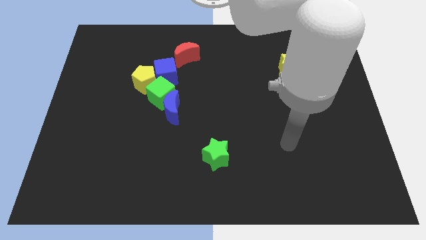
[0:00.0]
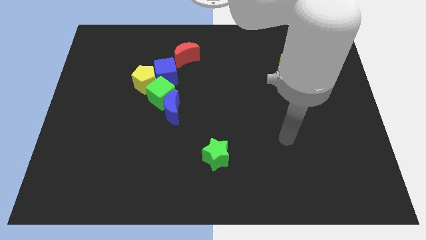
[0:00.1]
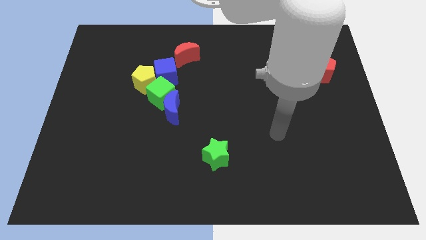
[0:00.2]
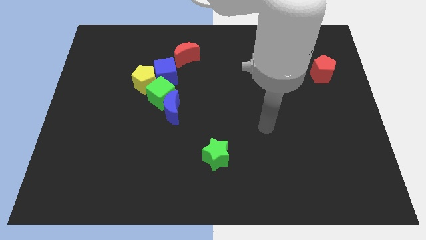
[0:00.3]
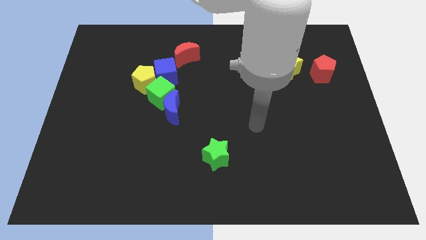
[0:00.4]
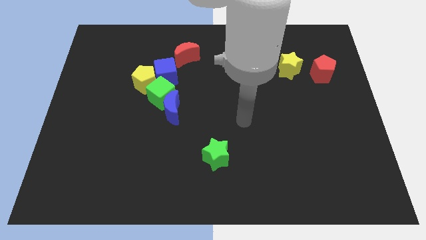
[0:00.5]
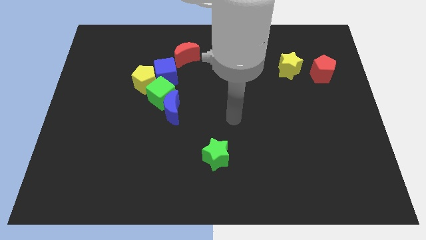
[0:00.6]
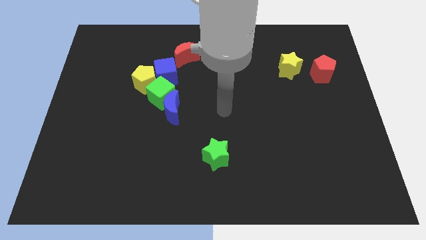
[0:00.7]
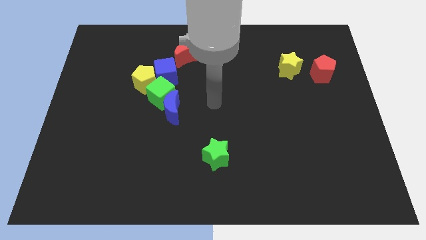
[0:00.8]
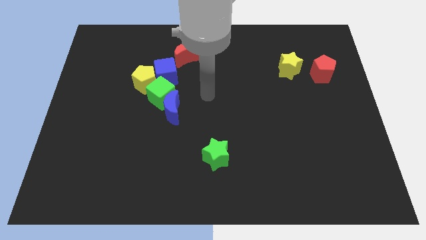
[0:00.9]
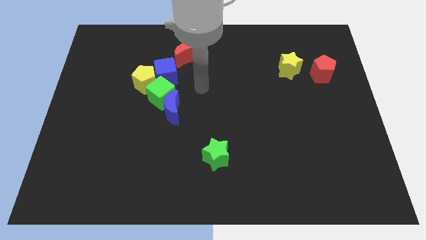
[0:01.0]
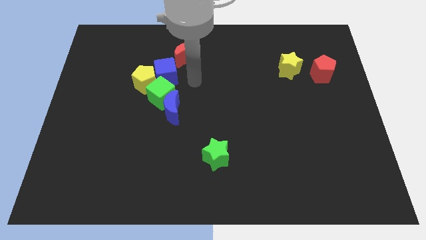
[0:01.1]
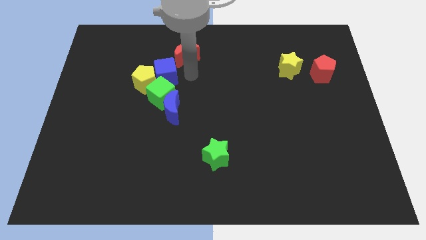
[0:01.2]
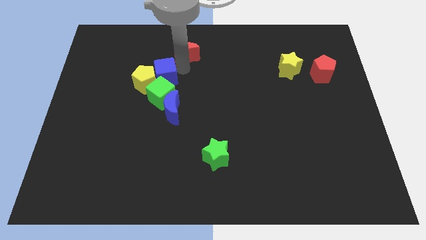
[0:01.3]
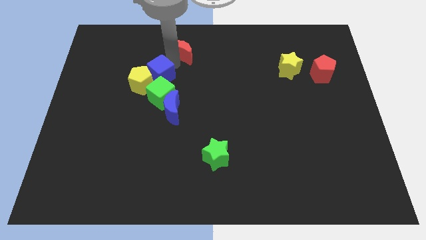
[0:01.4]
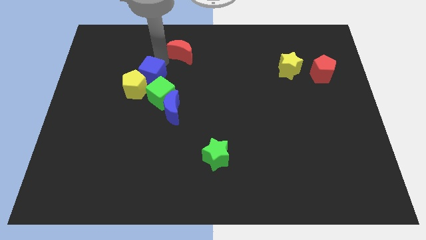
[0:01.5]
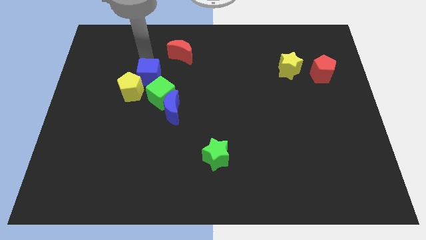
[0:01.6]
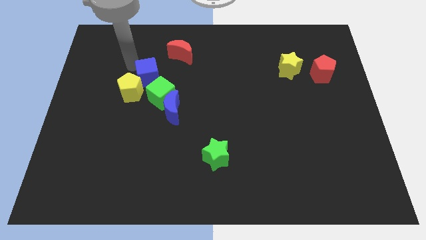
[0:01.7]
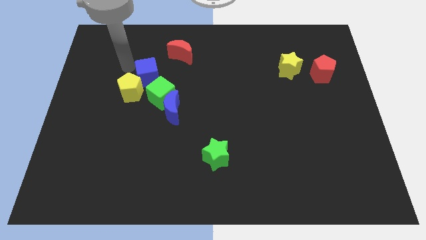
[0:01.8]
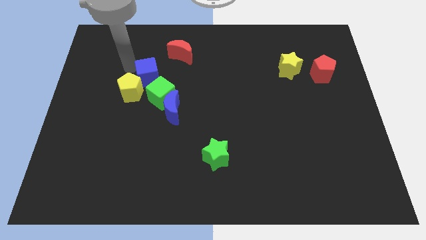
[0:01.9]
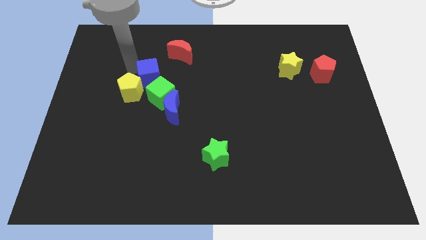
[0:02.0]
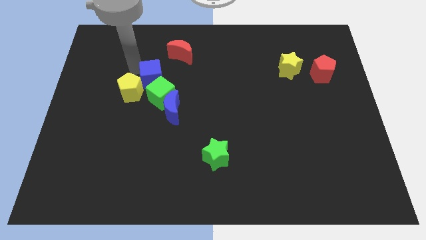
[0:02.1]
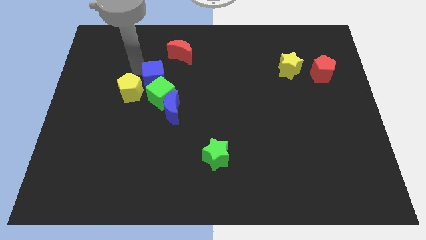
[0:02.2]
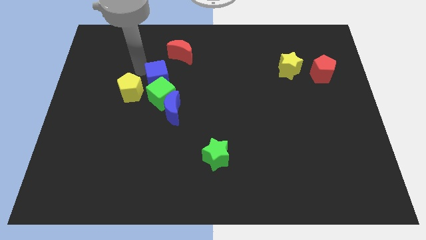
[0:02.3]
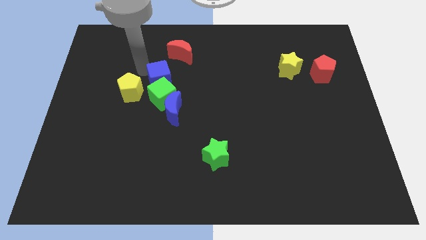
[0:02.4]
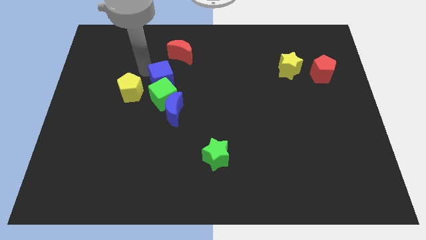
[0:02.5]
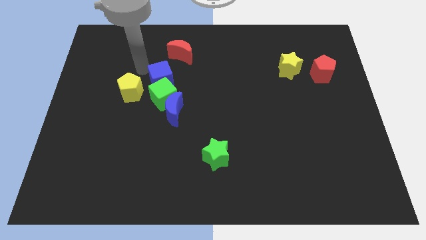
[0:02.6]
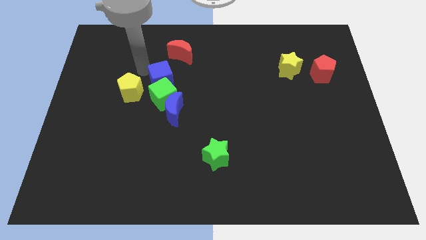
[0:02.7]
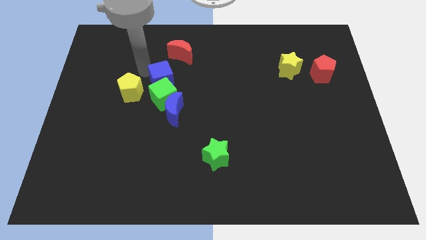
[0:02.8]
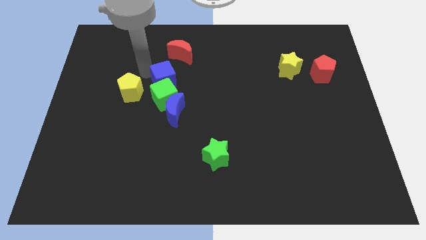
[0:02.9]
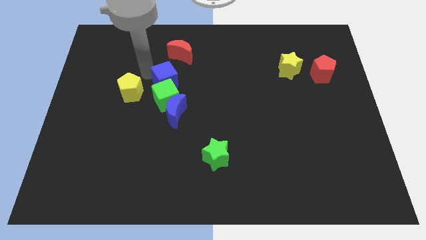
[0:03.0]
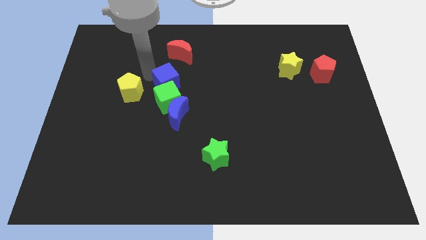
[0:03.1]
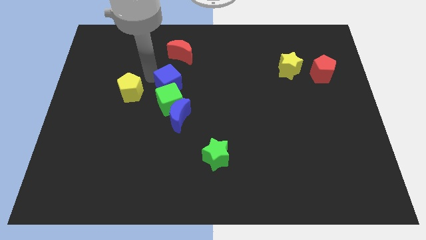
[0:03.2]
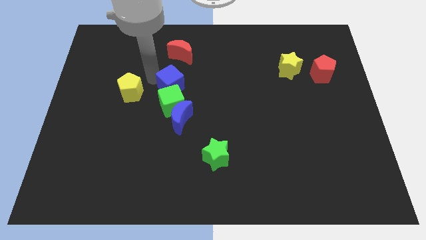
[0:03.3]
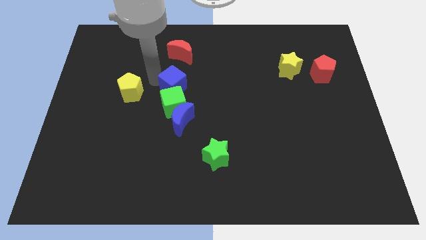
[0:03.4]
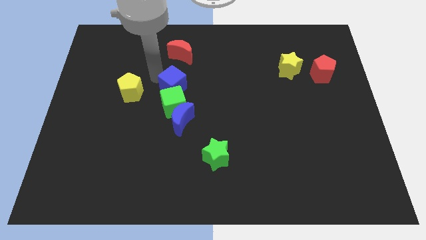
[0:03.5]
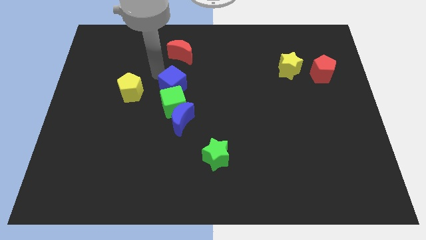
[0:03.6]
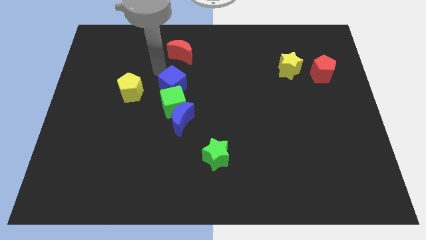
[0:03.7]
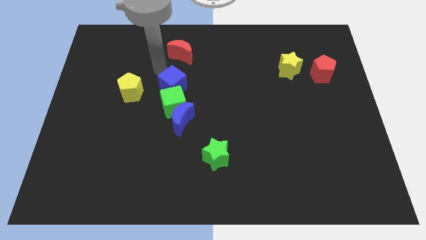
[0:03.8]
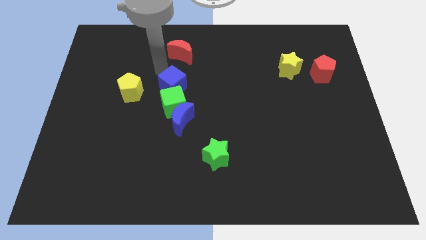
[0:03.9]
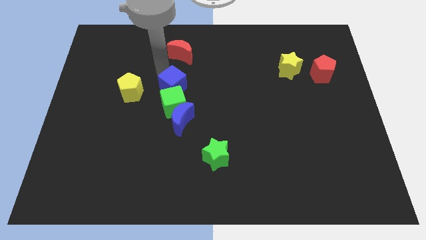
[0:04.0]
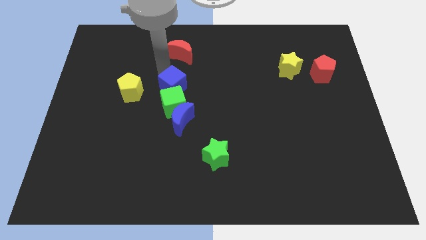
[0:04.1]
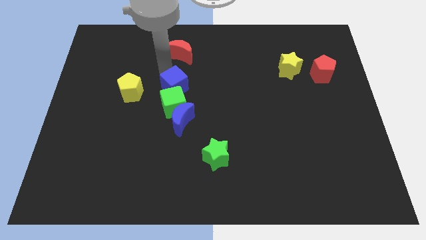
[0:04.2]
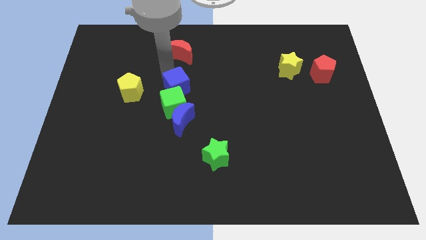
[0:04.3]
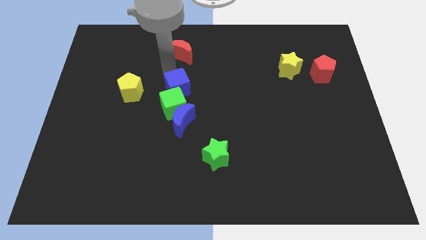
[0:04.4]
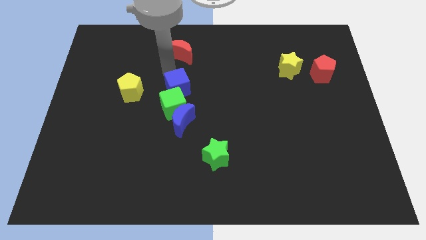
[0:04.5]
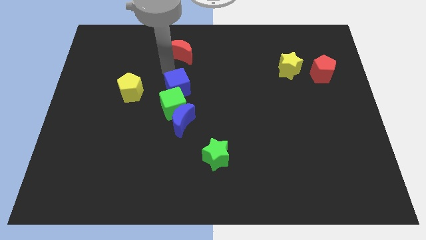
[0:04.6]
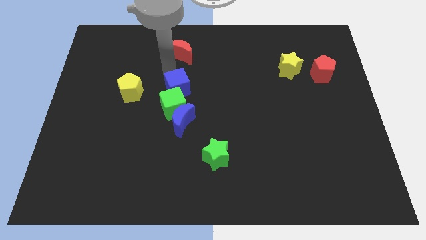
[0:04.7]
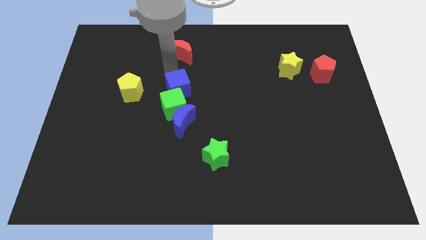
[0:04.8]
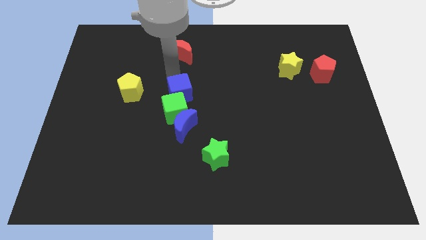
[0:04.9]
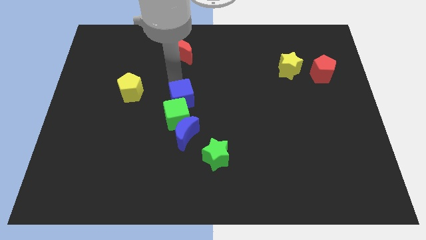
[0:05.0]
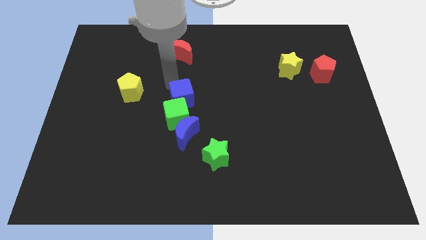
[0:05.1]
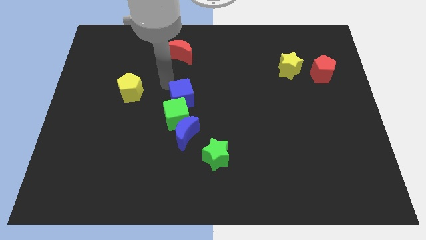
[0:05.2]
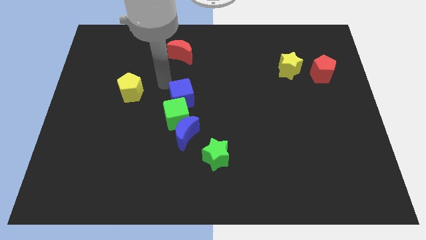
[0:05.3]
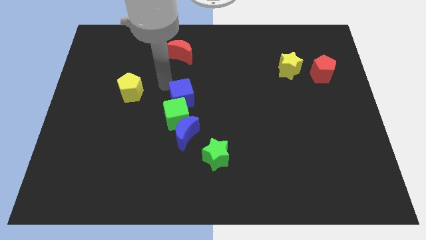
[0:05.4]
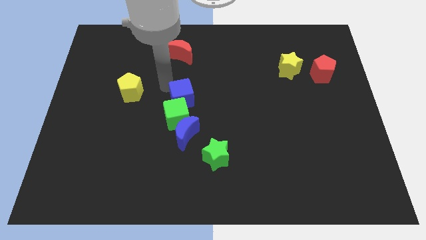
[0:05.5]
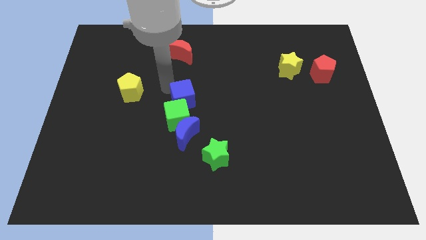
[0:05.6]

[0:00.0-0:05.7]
move the blue cube downwards slightly

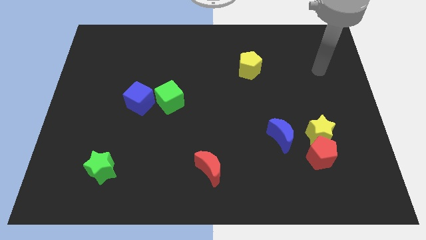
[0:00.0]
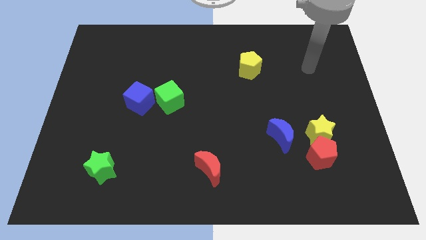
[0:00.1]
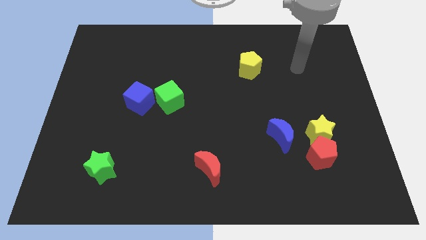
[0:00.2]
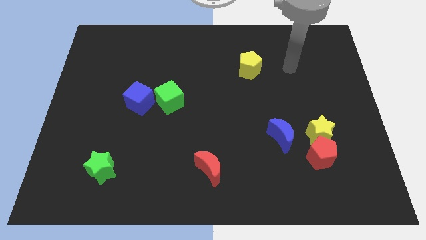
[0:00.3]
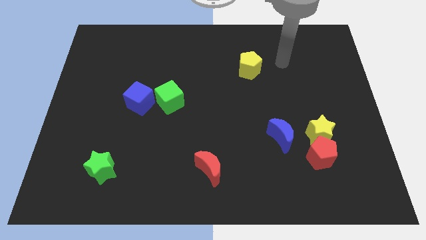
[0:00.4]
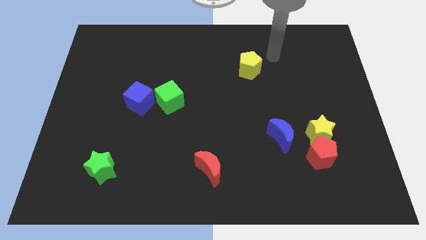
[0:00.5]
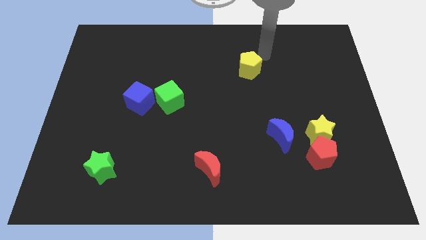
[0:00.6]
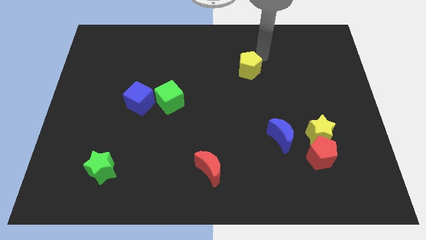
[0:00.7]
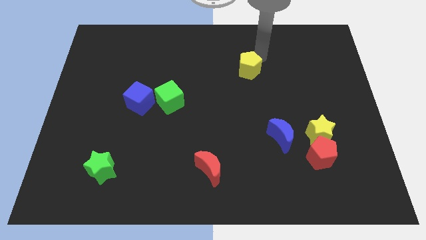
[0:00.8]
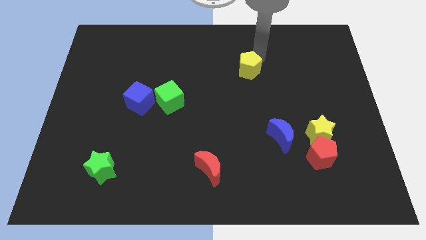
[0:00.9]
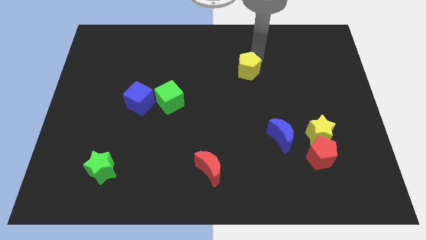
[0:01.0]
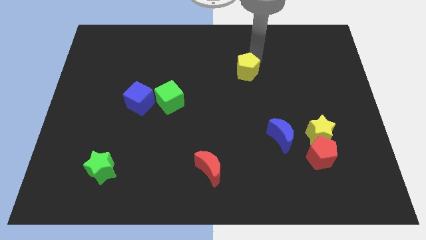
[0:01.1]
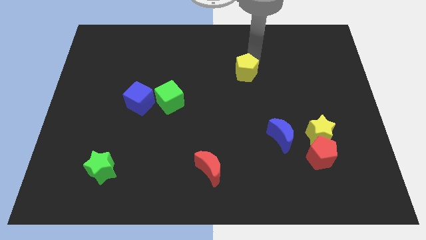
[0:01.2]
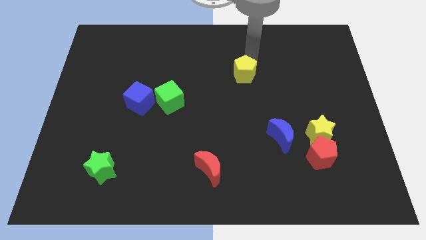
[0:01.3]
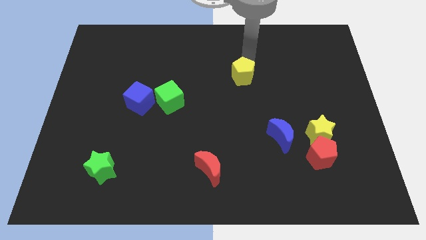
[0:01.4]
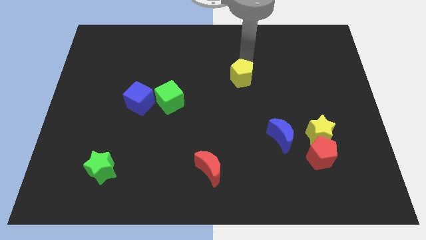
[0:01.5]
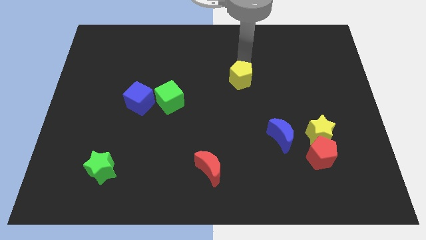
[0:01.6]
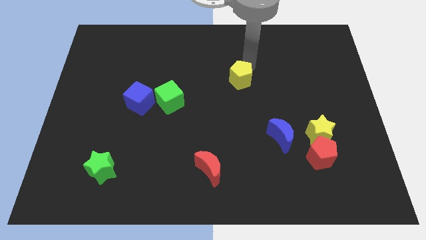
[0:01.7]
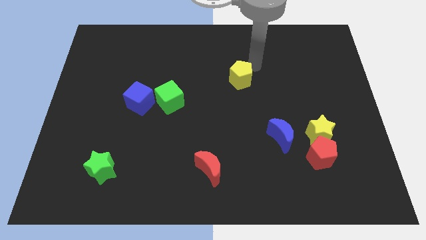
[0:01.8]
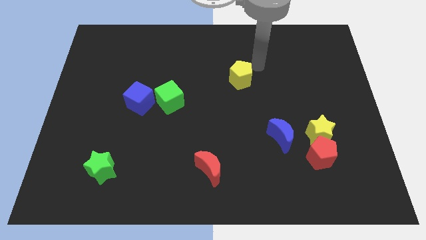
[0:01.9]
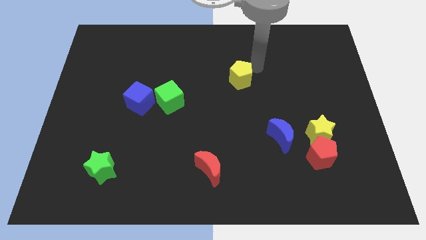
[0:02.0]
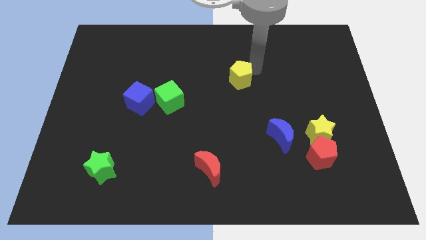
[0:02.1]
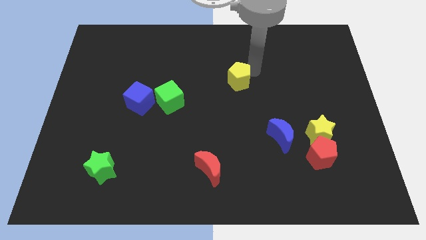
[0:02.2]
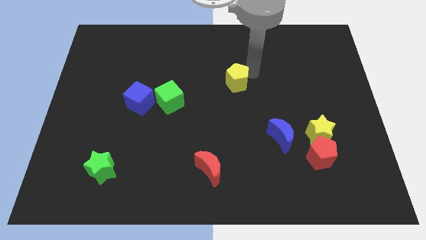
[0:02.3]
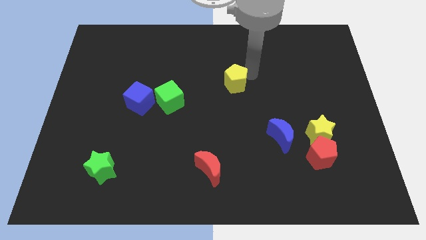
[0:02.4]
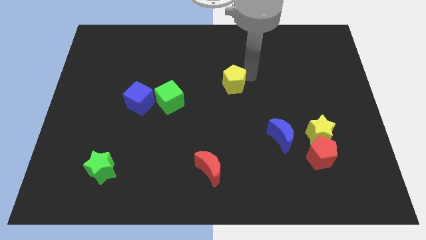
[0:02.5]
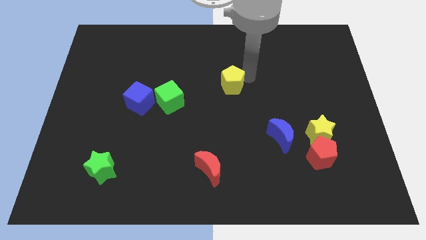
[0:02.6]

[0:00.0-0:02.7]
move the yellow pentagon somewhat down and to the left

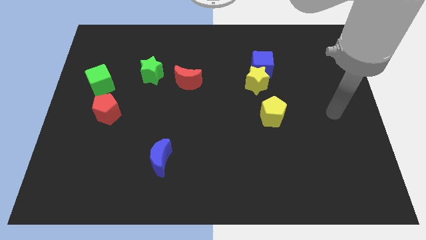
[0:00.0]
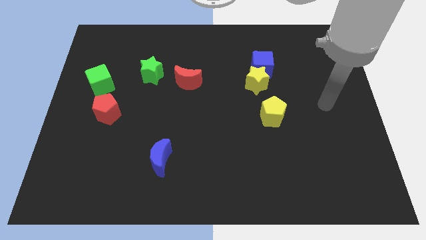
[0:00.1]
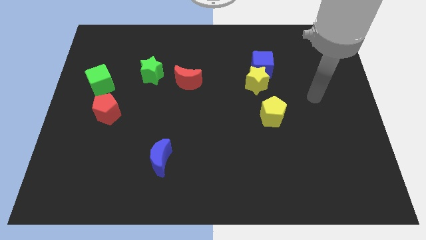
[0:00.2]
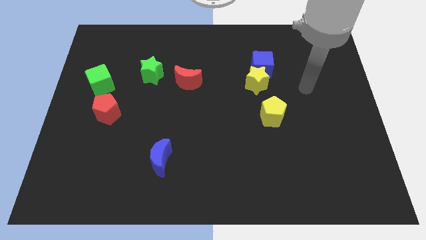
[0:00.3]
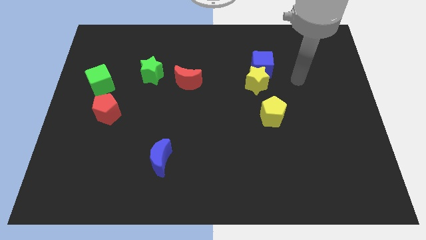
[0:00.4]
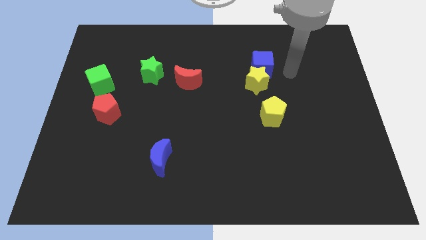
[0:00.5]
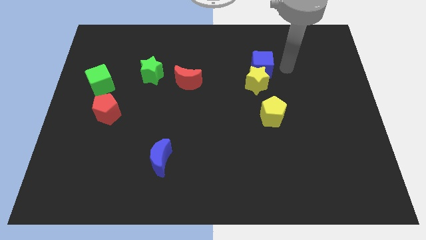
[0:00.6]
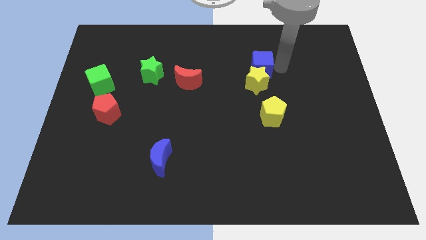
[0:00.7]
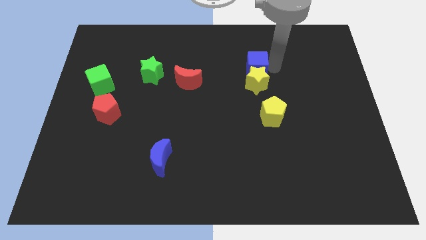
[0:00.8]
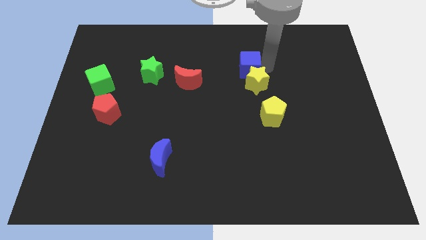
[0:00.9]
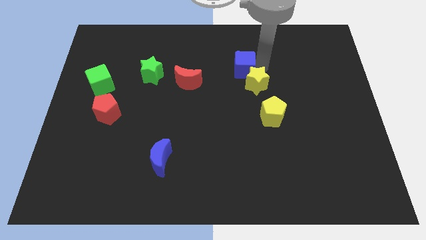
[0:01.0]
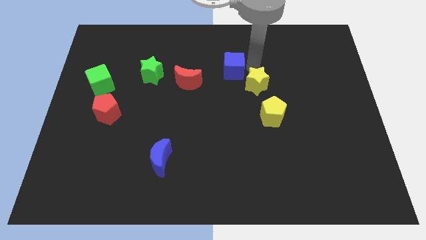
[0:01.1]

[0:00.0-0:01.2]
push the blue cube left somewhat
